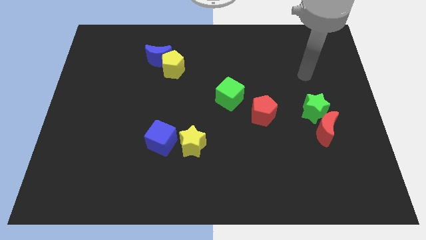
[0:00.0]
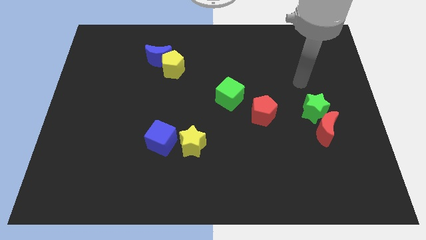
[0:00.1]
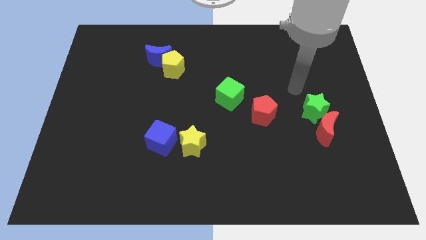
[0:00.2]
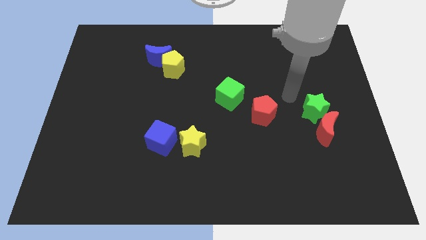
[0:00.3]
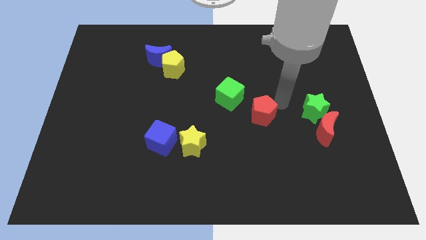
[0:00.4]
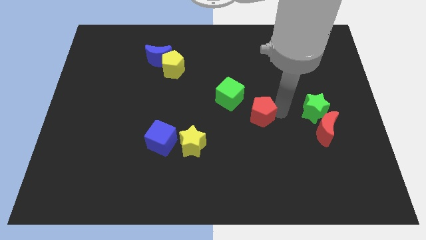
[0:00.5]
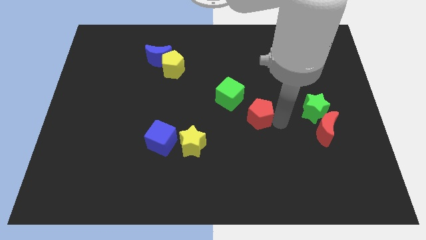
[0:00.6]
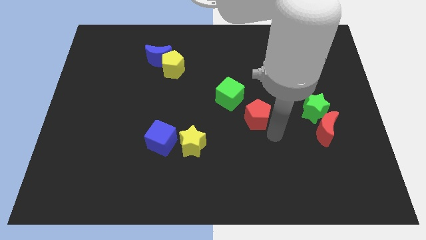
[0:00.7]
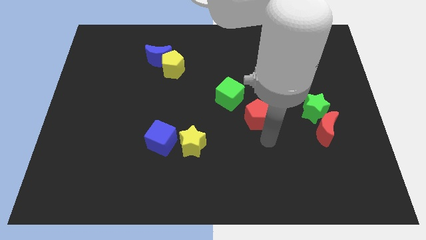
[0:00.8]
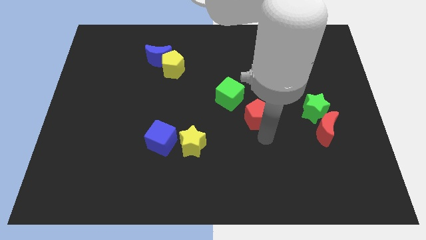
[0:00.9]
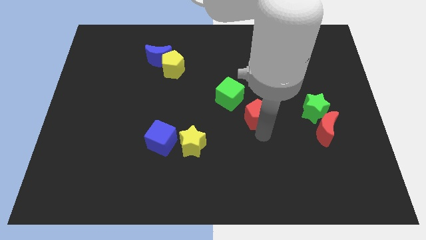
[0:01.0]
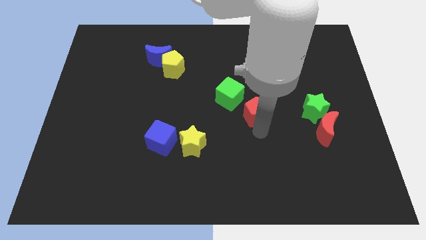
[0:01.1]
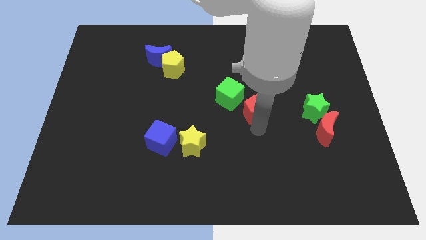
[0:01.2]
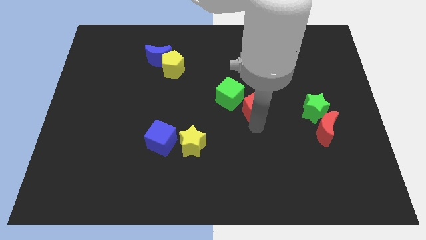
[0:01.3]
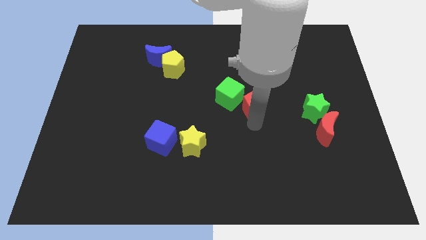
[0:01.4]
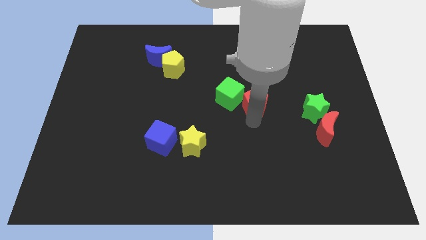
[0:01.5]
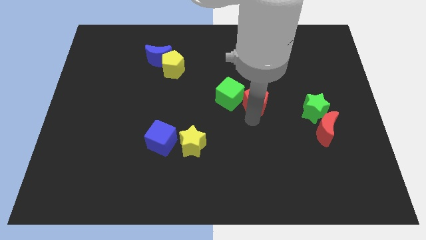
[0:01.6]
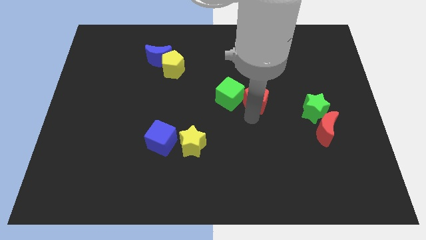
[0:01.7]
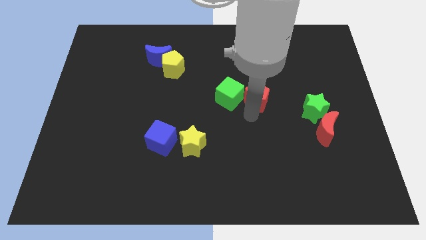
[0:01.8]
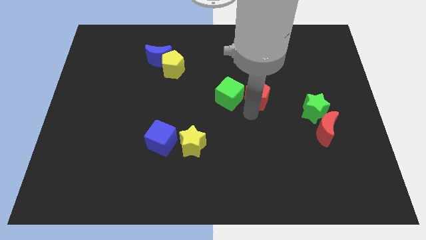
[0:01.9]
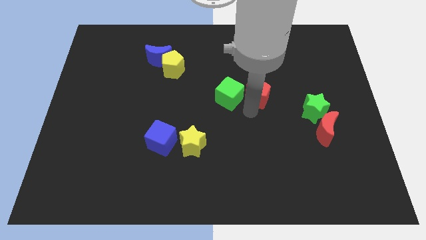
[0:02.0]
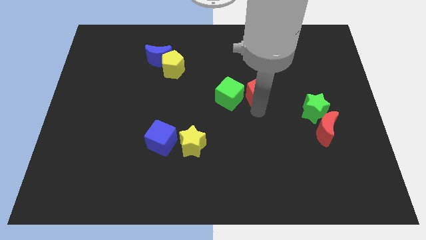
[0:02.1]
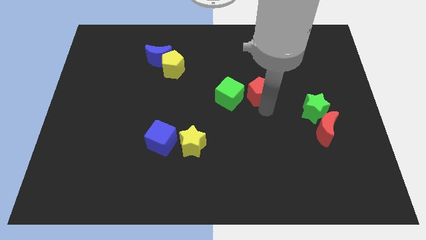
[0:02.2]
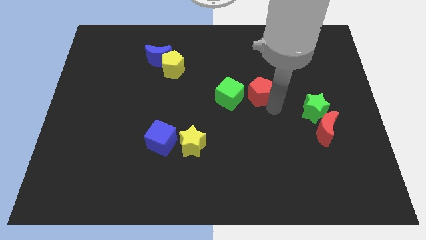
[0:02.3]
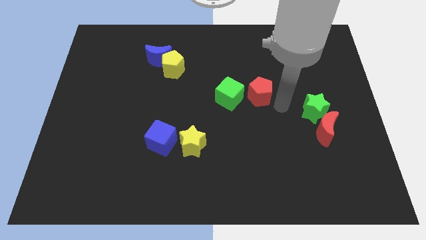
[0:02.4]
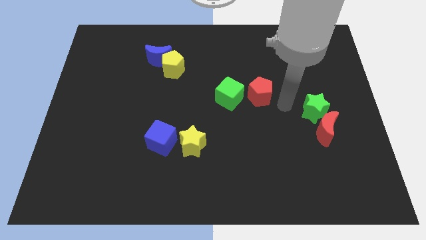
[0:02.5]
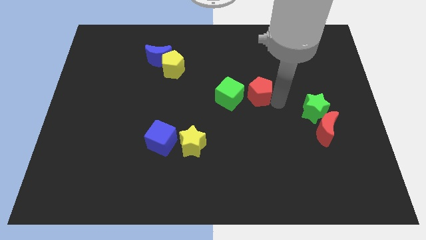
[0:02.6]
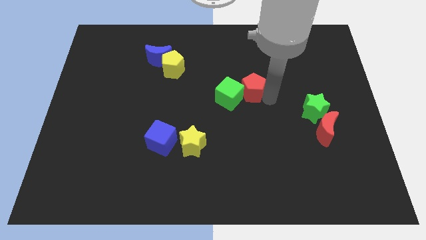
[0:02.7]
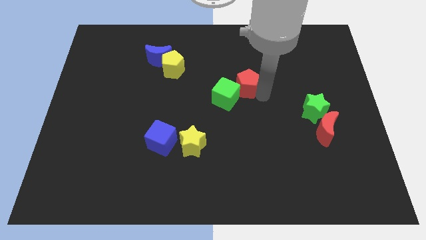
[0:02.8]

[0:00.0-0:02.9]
push the red pentagon a little bit upwards and then left

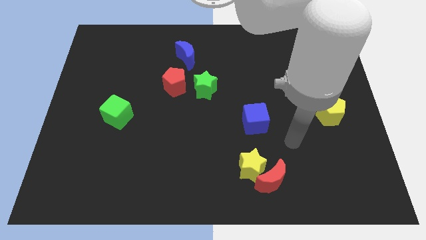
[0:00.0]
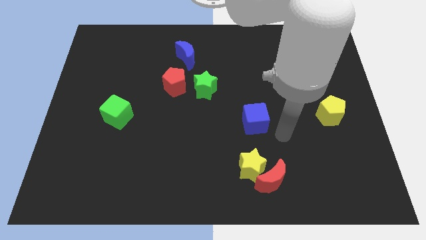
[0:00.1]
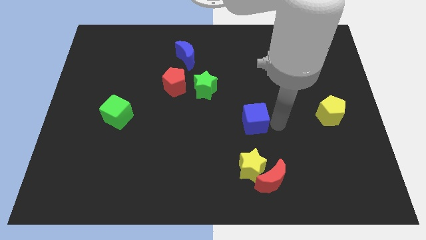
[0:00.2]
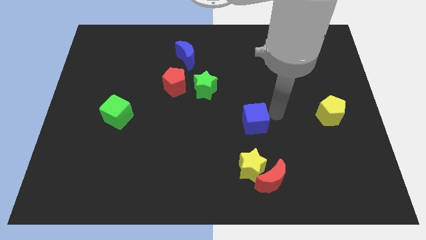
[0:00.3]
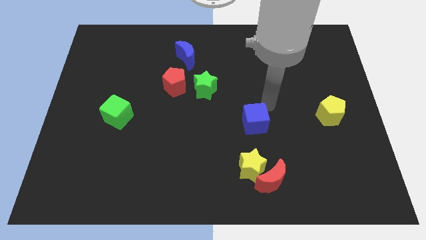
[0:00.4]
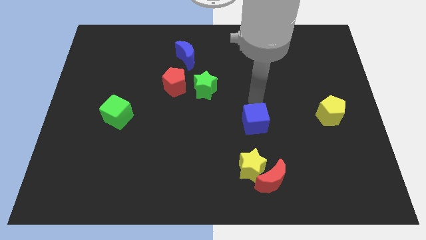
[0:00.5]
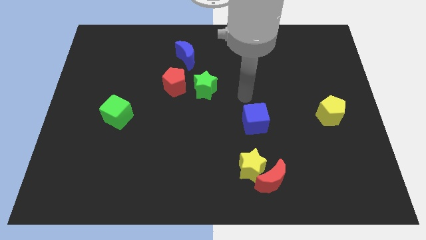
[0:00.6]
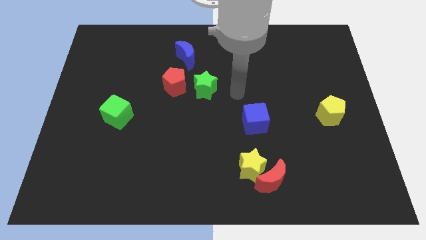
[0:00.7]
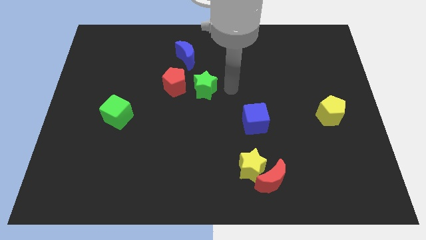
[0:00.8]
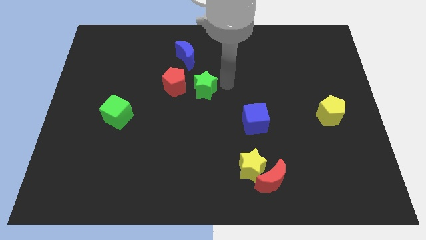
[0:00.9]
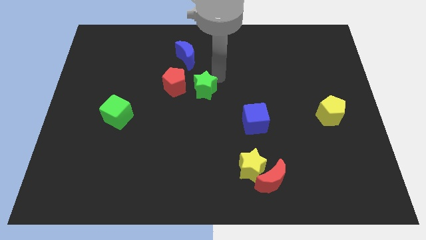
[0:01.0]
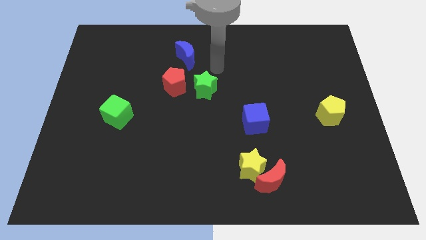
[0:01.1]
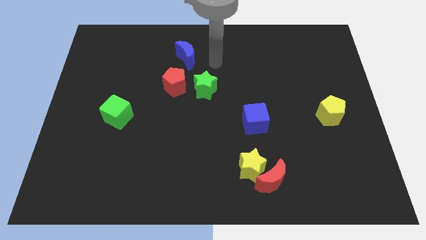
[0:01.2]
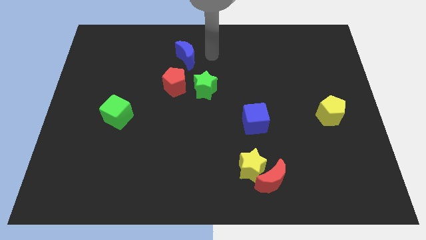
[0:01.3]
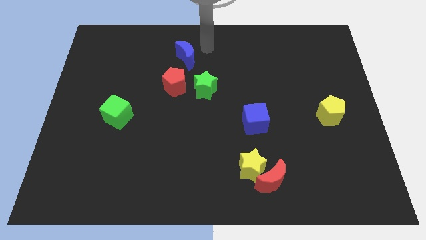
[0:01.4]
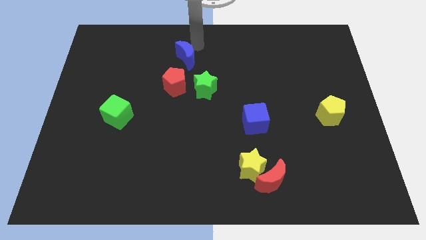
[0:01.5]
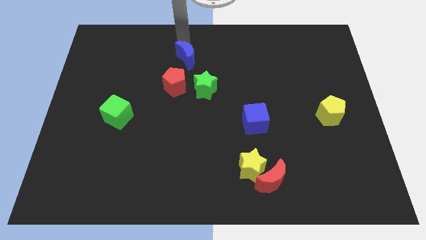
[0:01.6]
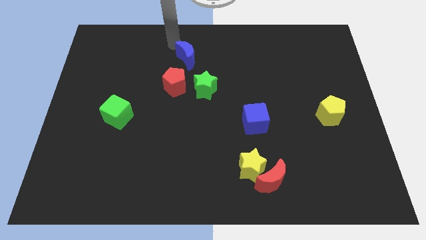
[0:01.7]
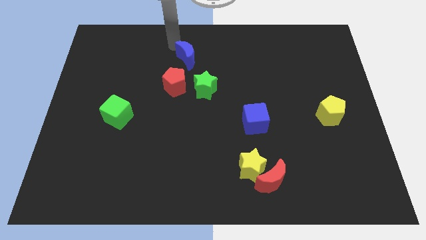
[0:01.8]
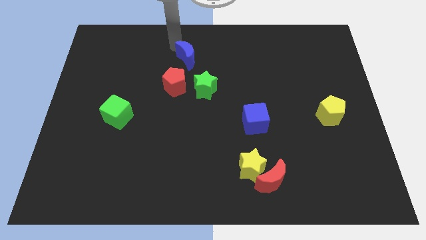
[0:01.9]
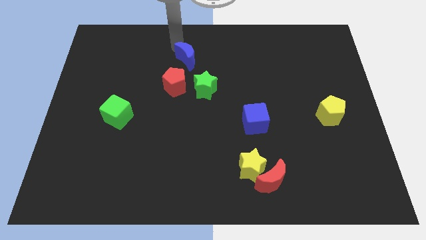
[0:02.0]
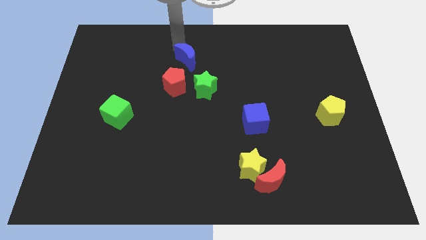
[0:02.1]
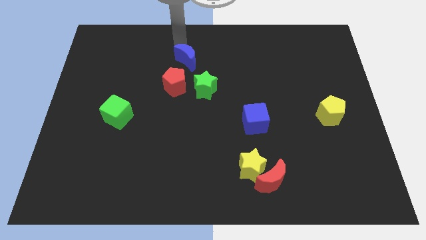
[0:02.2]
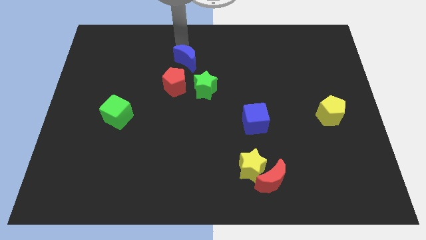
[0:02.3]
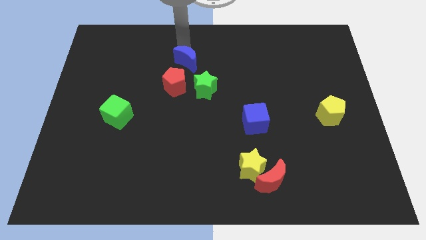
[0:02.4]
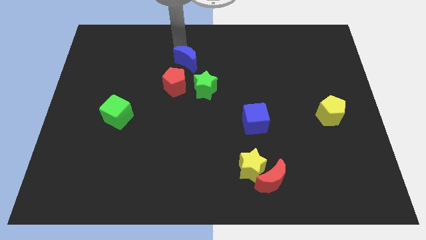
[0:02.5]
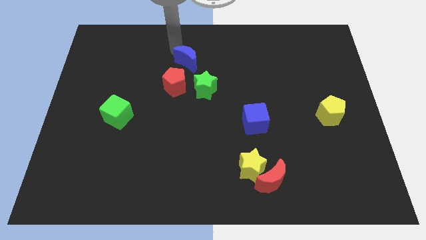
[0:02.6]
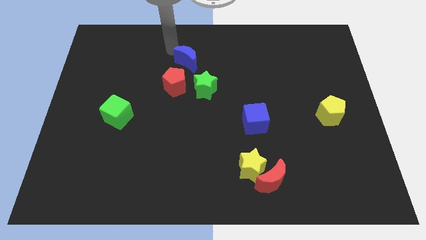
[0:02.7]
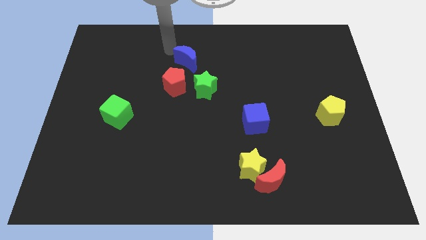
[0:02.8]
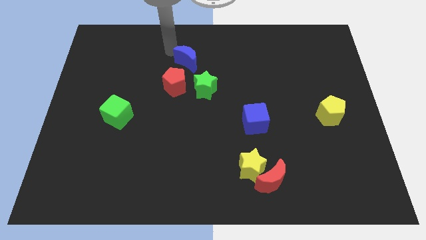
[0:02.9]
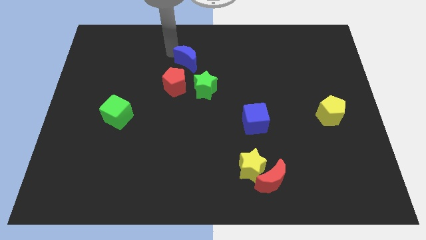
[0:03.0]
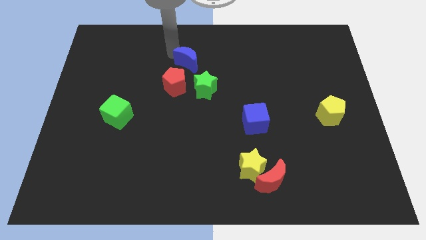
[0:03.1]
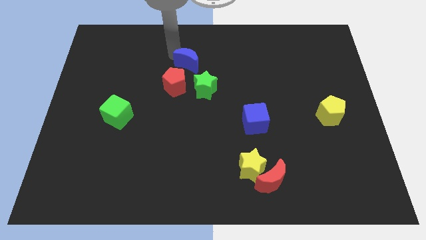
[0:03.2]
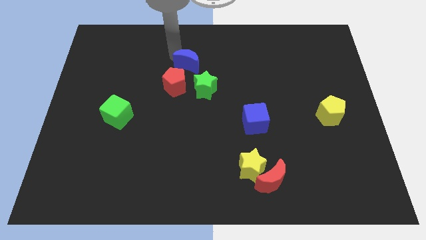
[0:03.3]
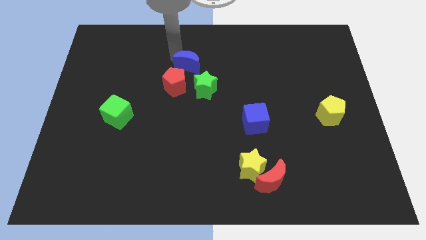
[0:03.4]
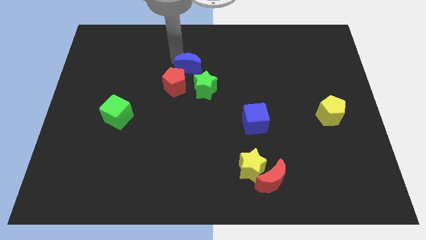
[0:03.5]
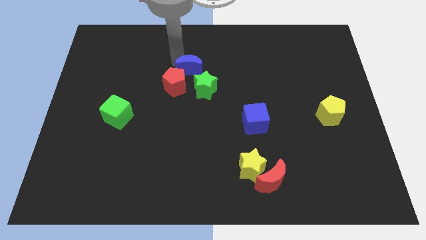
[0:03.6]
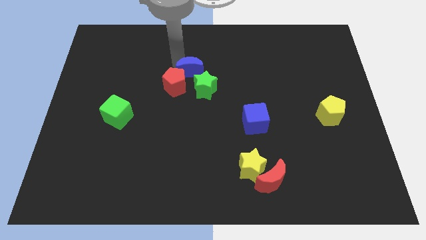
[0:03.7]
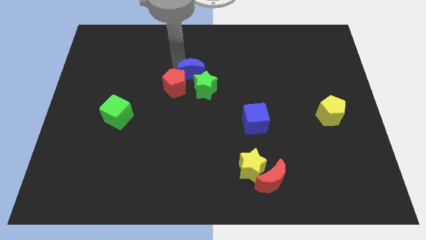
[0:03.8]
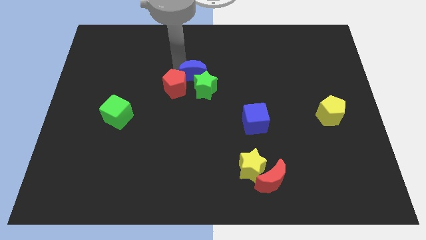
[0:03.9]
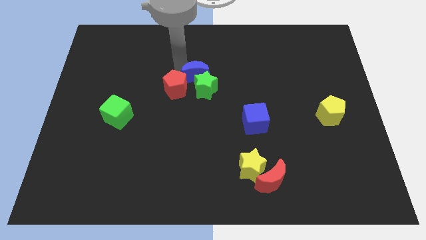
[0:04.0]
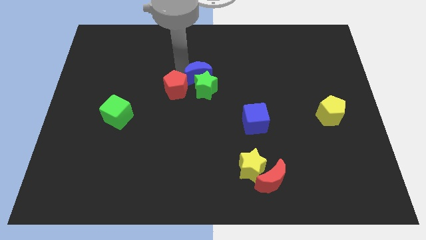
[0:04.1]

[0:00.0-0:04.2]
push the blue moon somewhat down and to the right diagonally

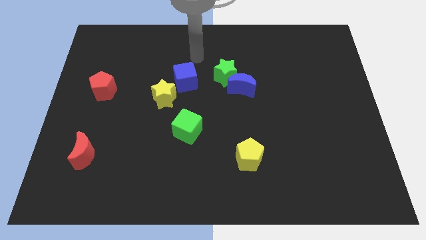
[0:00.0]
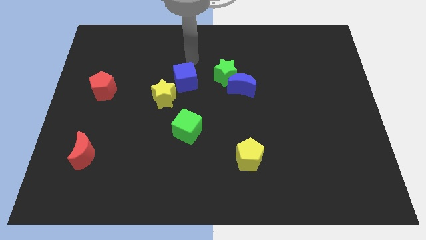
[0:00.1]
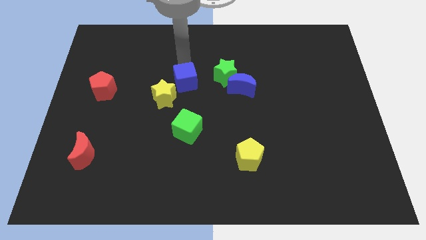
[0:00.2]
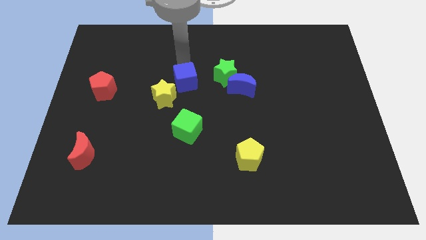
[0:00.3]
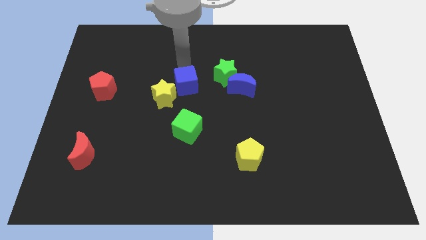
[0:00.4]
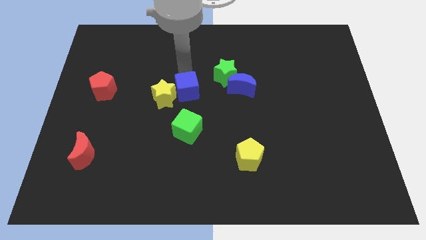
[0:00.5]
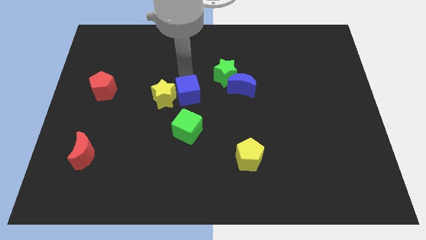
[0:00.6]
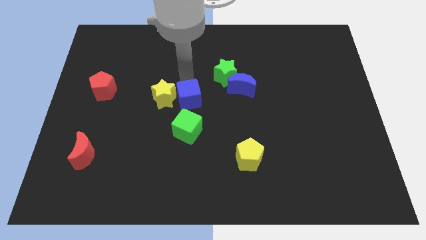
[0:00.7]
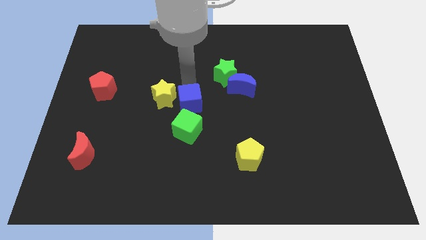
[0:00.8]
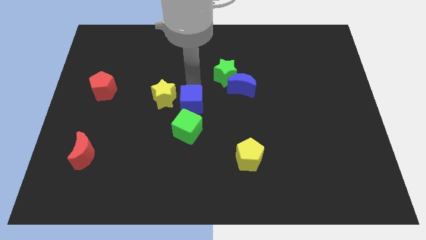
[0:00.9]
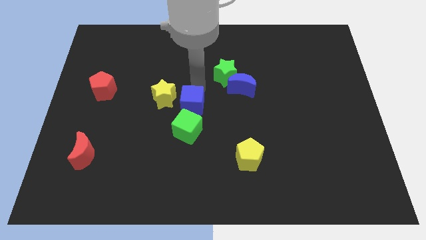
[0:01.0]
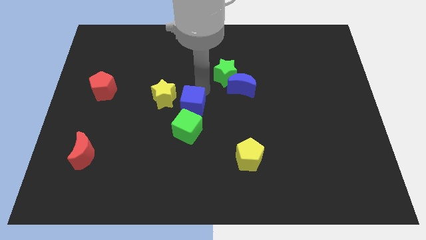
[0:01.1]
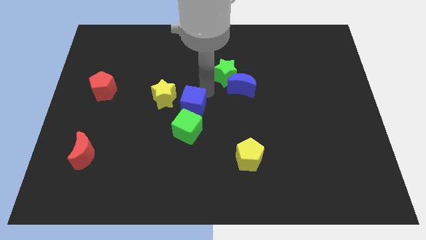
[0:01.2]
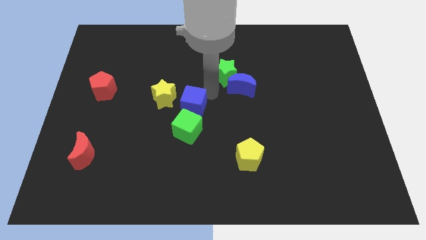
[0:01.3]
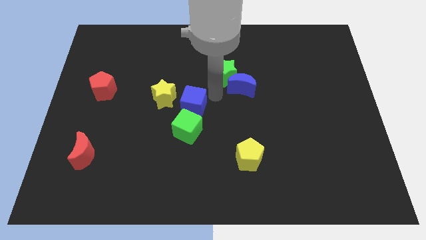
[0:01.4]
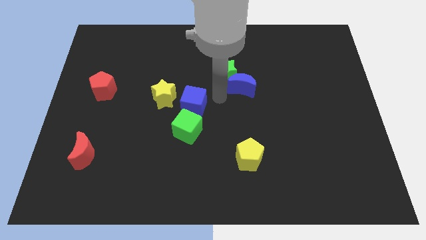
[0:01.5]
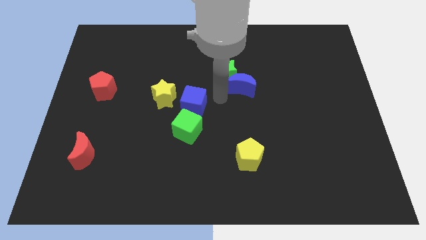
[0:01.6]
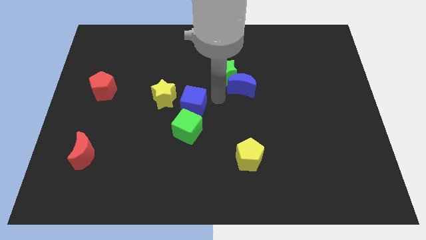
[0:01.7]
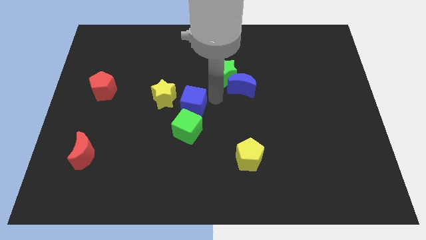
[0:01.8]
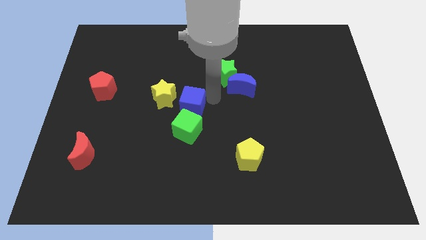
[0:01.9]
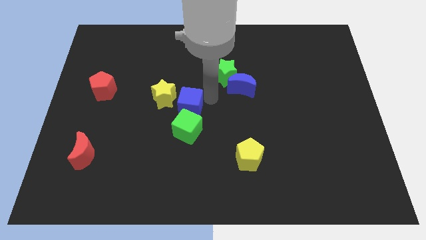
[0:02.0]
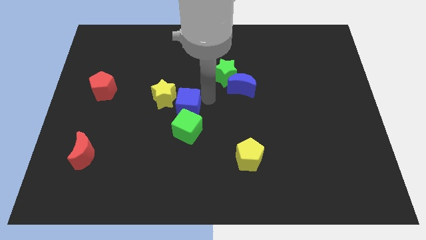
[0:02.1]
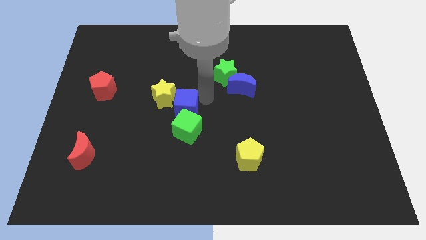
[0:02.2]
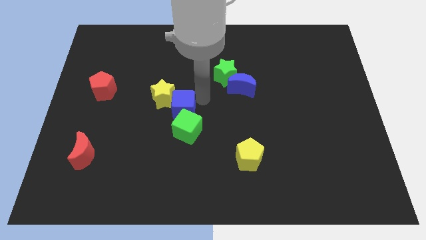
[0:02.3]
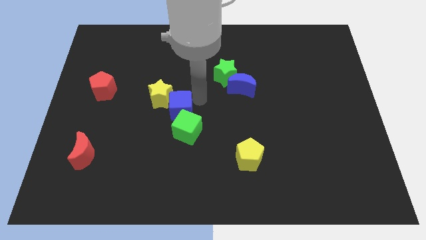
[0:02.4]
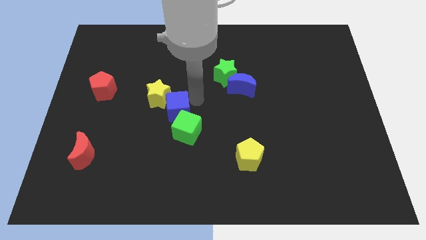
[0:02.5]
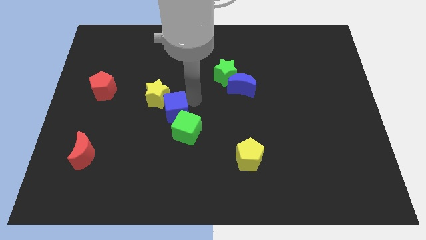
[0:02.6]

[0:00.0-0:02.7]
move the blue cube diagonally down and left somewhat
